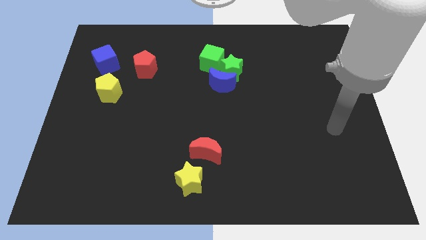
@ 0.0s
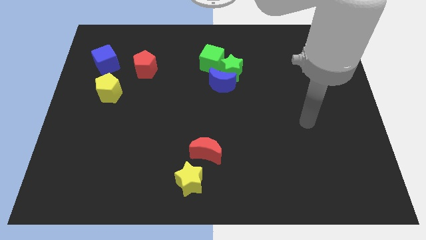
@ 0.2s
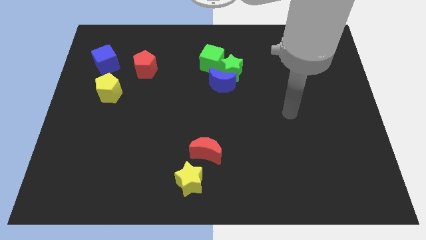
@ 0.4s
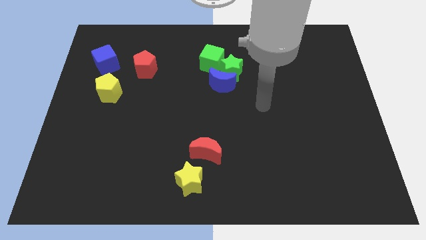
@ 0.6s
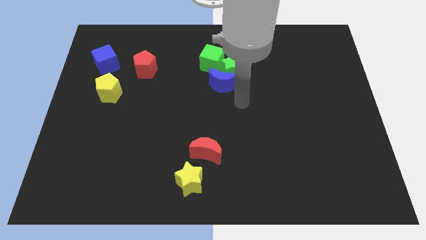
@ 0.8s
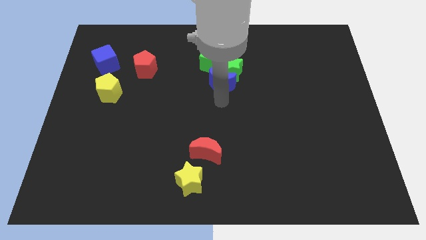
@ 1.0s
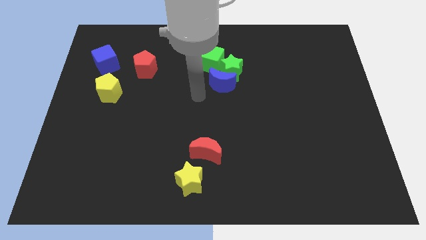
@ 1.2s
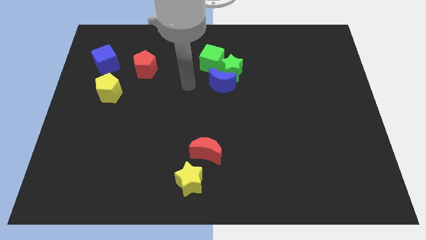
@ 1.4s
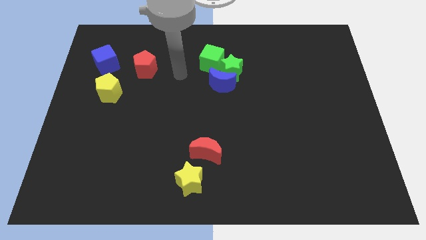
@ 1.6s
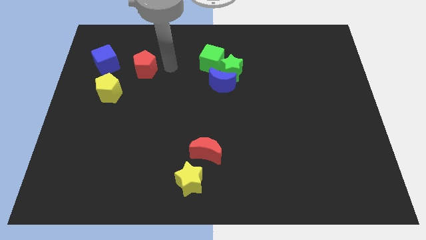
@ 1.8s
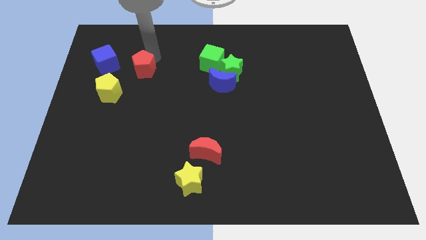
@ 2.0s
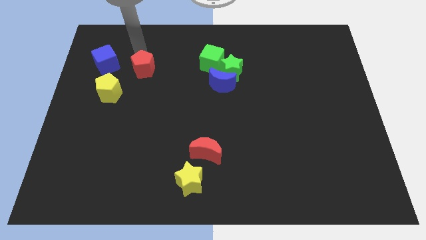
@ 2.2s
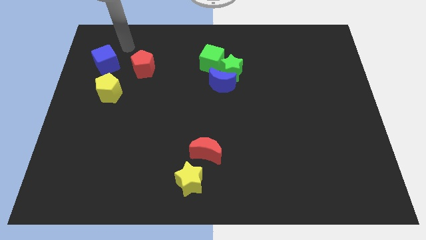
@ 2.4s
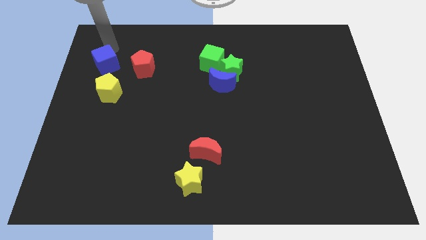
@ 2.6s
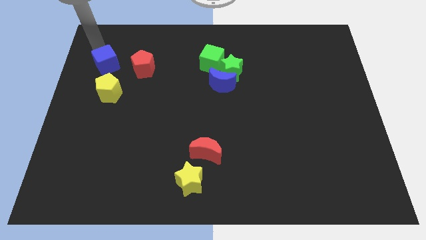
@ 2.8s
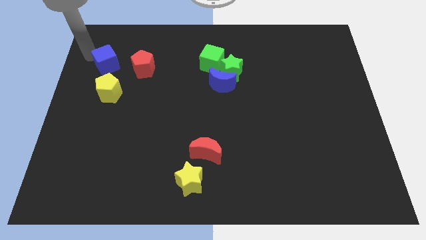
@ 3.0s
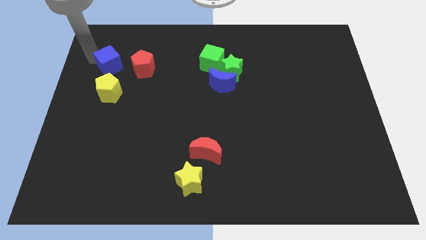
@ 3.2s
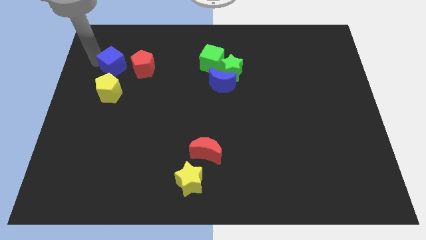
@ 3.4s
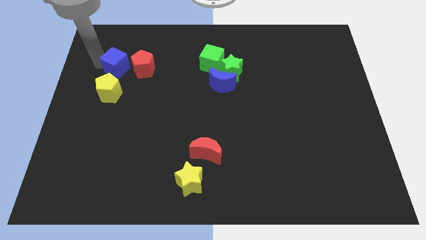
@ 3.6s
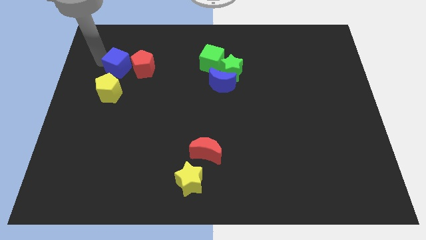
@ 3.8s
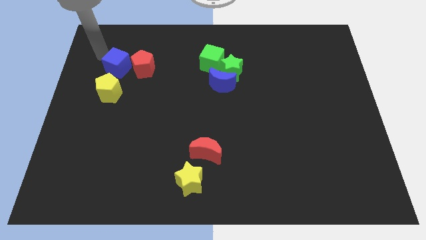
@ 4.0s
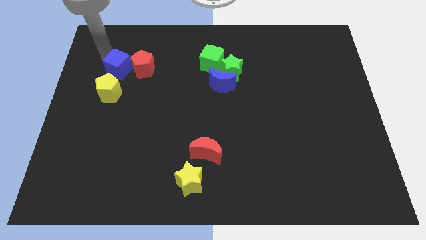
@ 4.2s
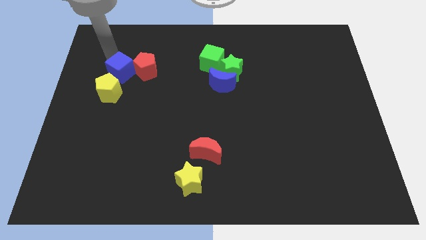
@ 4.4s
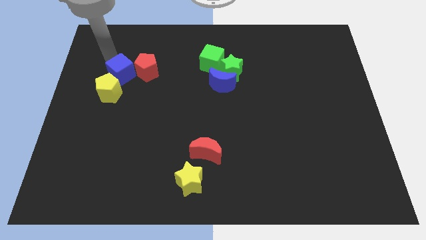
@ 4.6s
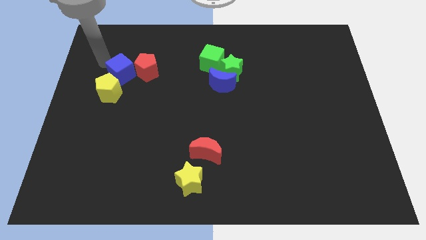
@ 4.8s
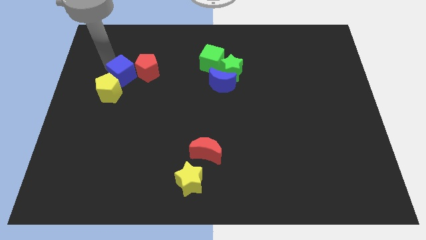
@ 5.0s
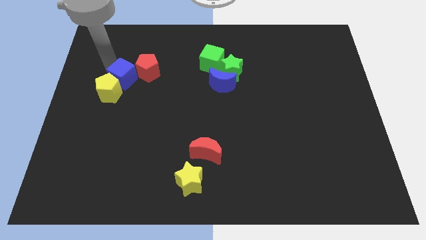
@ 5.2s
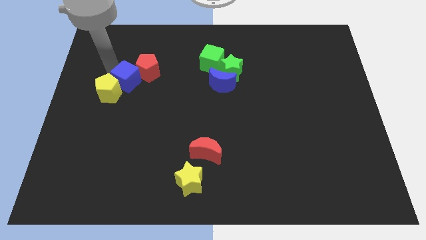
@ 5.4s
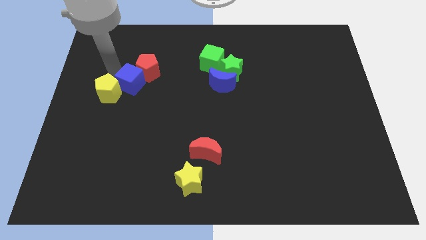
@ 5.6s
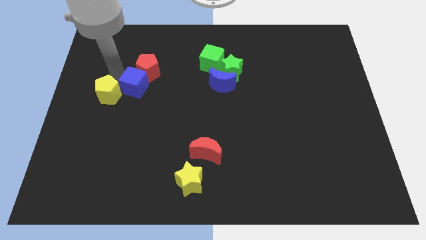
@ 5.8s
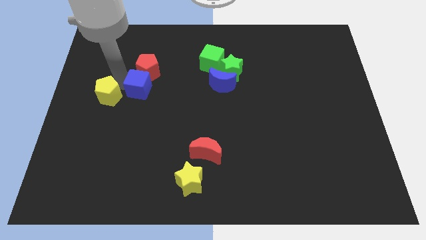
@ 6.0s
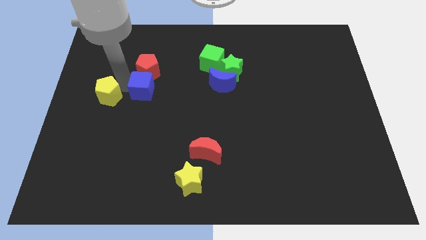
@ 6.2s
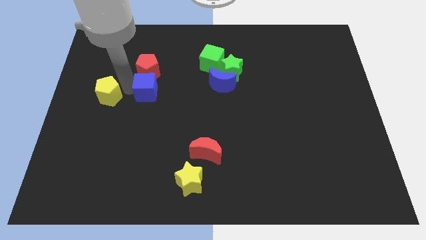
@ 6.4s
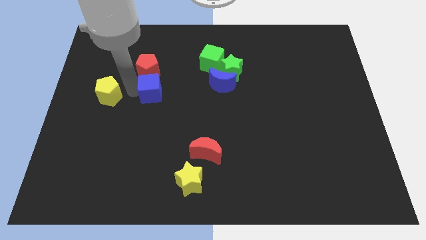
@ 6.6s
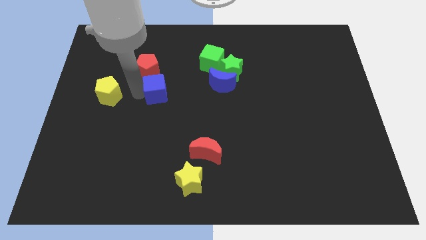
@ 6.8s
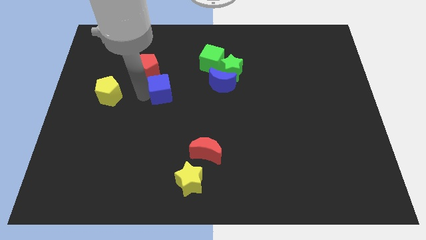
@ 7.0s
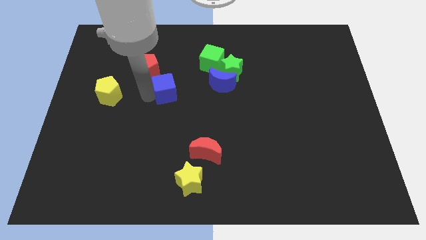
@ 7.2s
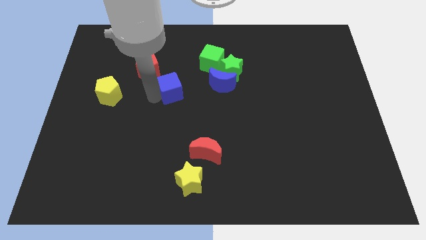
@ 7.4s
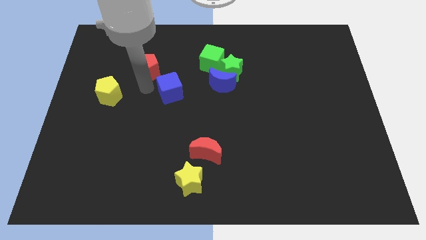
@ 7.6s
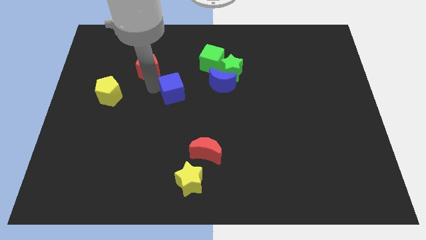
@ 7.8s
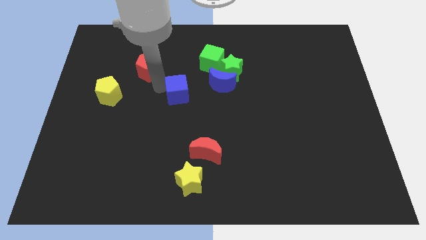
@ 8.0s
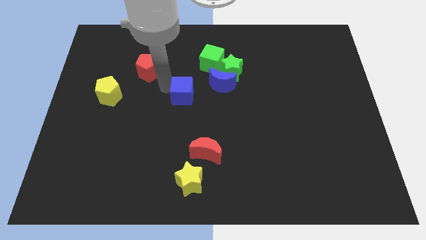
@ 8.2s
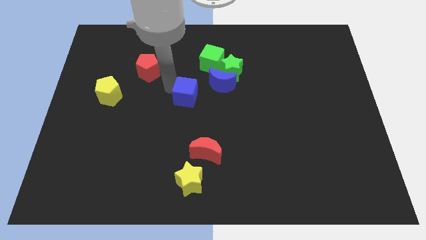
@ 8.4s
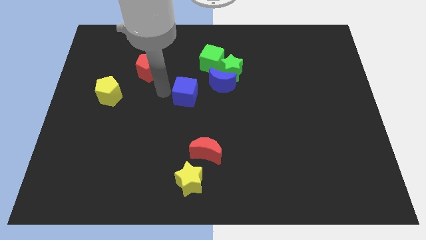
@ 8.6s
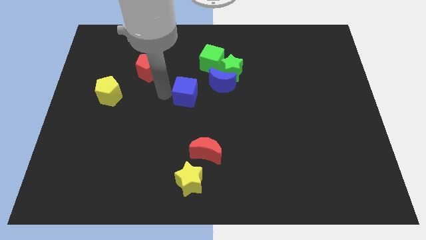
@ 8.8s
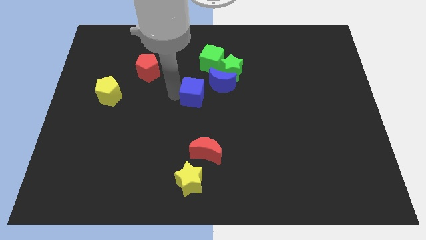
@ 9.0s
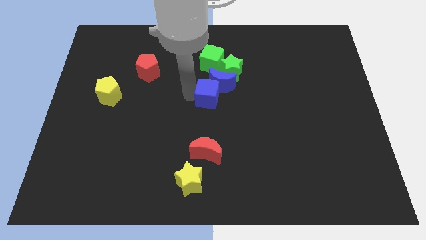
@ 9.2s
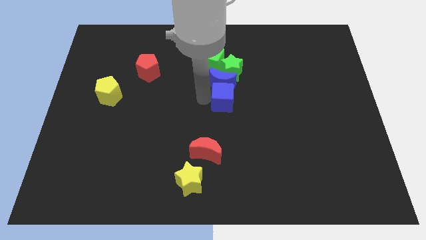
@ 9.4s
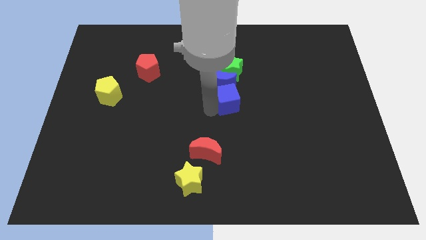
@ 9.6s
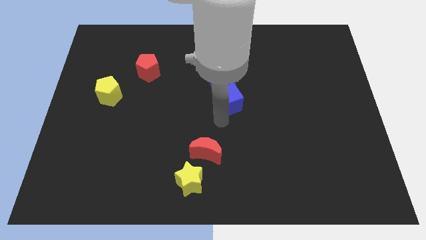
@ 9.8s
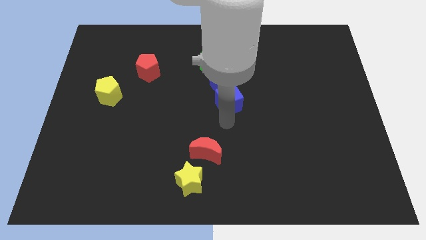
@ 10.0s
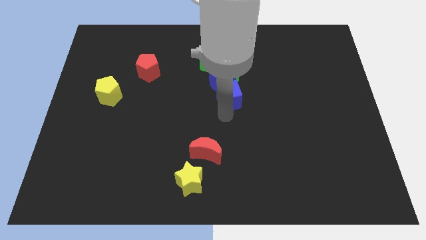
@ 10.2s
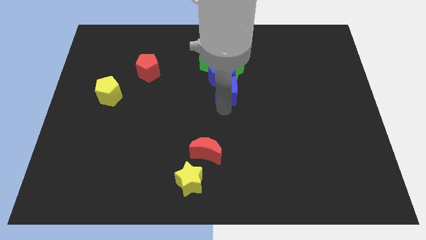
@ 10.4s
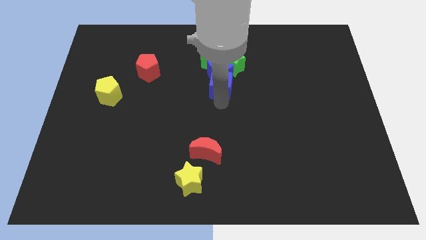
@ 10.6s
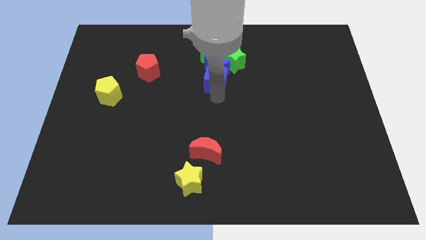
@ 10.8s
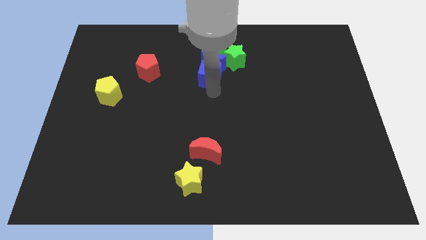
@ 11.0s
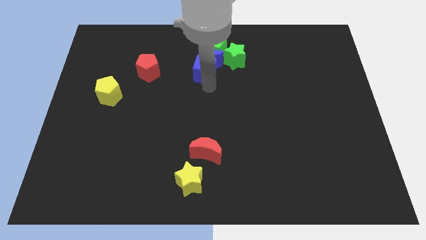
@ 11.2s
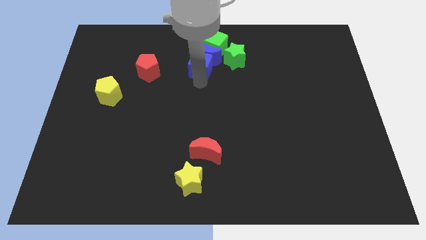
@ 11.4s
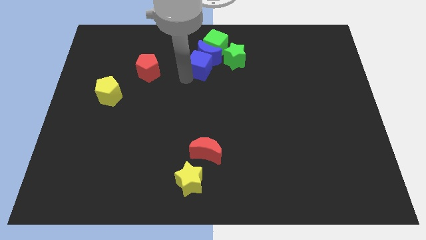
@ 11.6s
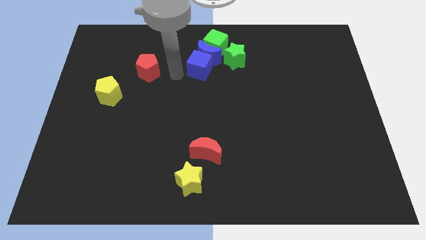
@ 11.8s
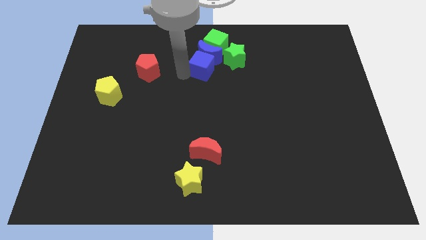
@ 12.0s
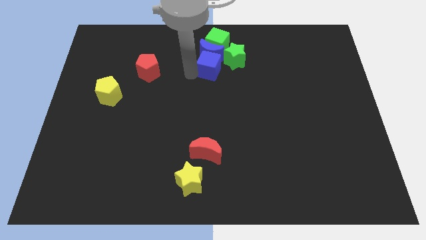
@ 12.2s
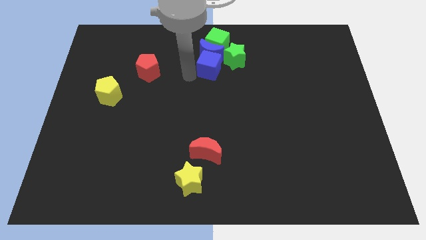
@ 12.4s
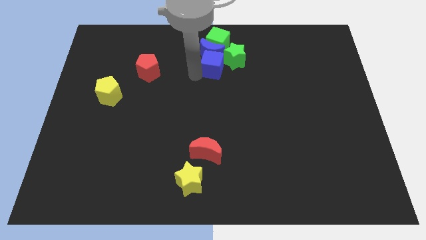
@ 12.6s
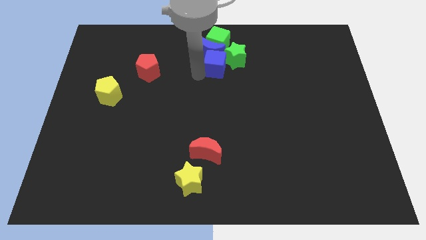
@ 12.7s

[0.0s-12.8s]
push the blue cube close to the green star
